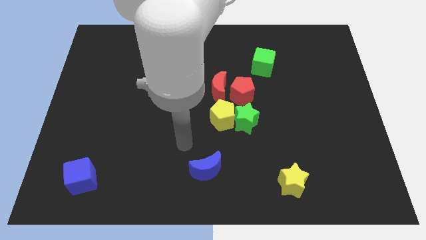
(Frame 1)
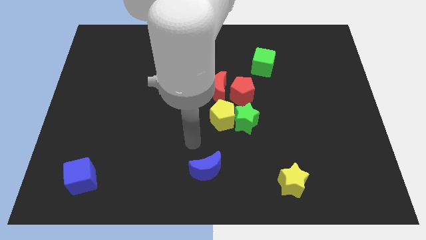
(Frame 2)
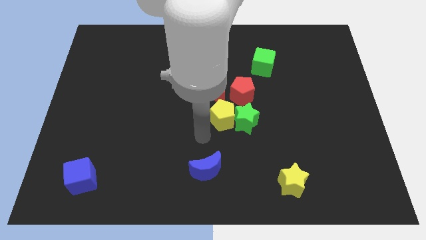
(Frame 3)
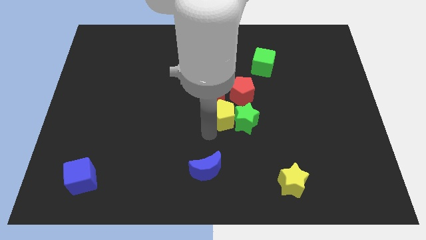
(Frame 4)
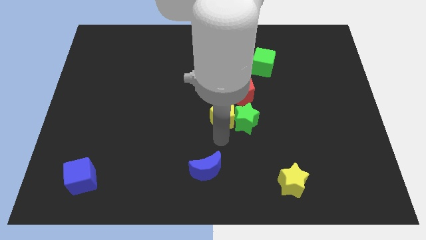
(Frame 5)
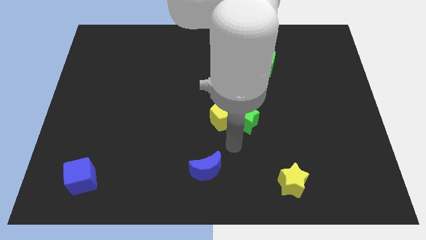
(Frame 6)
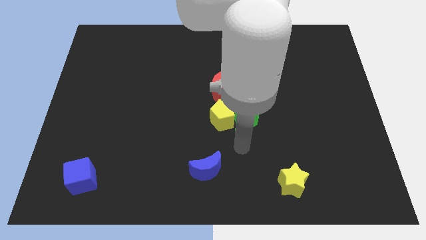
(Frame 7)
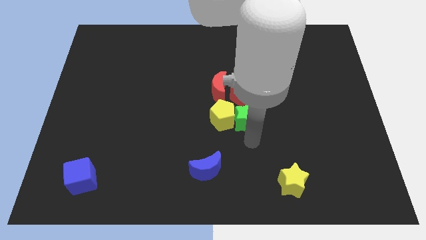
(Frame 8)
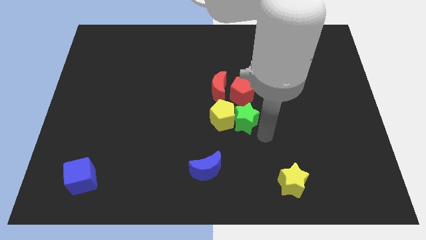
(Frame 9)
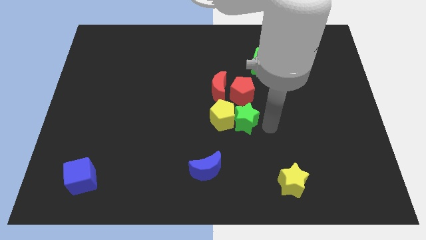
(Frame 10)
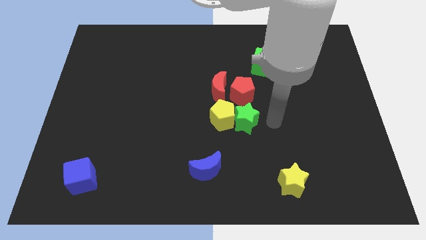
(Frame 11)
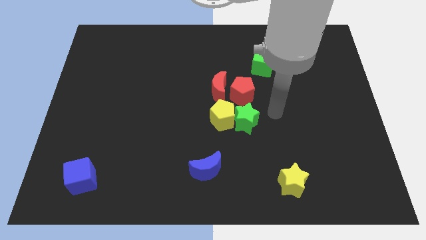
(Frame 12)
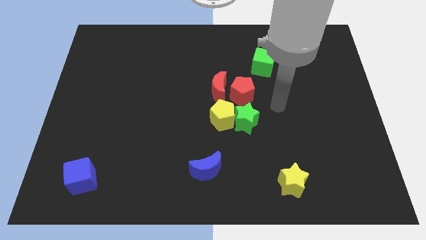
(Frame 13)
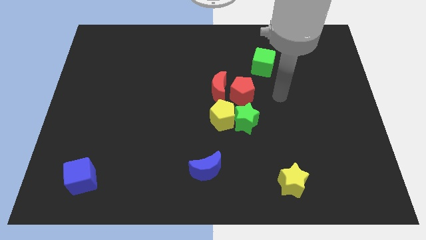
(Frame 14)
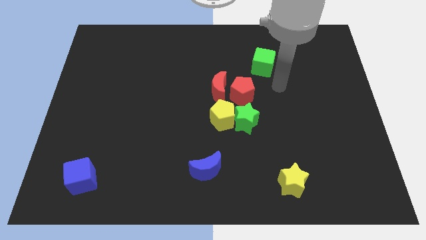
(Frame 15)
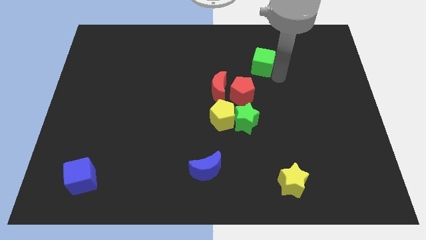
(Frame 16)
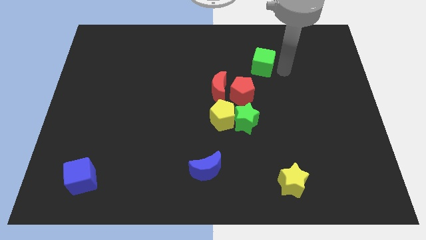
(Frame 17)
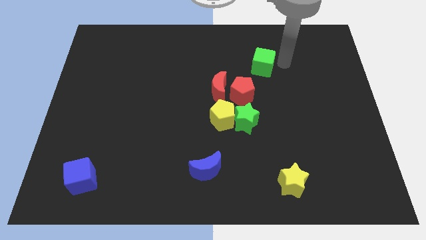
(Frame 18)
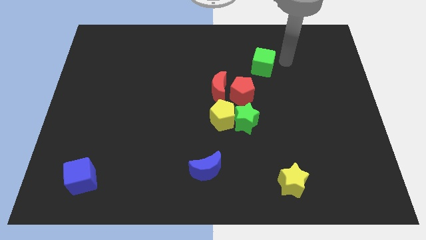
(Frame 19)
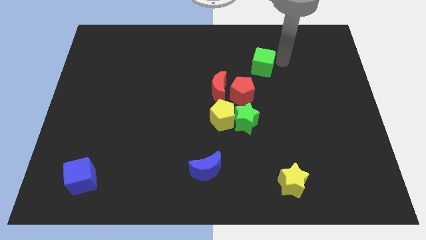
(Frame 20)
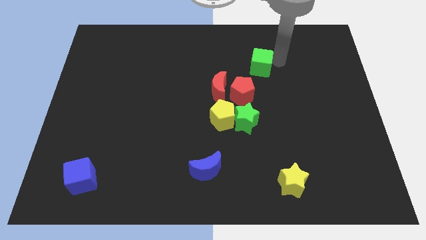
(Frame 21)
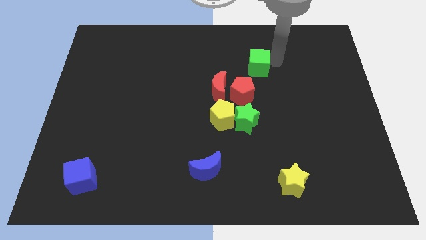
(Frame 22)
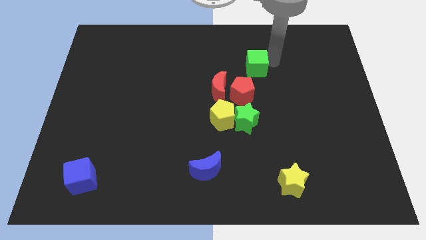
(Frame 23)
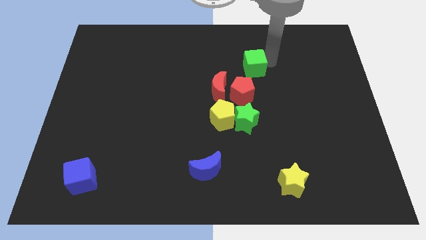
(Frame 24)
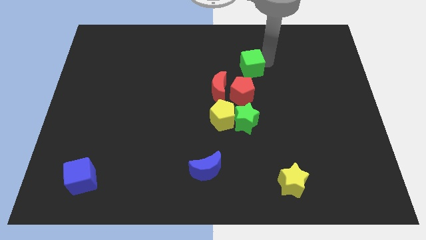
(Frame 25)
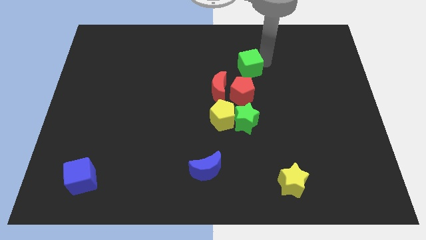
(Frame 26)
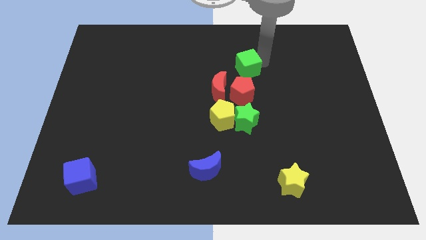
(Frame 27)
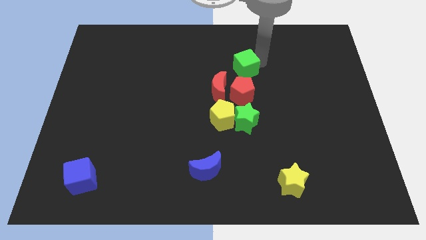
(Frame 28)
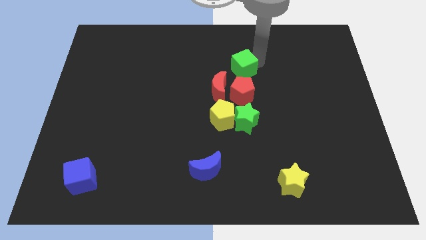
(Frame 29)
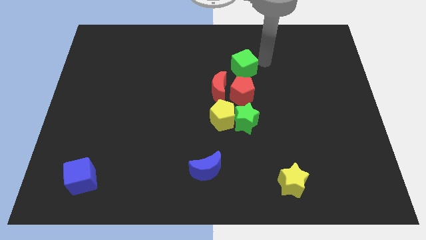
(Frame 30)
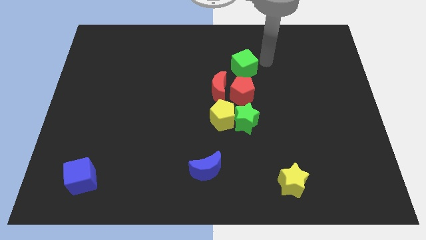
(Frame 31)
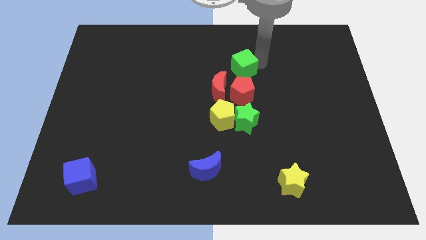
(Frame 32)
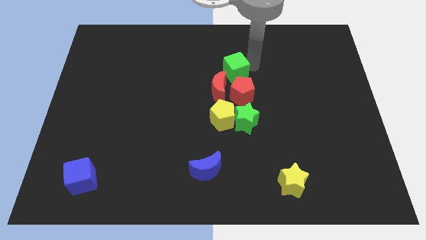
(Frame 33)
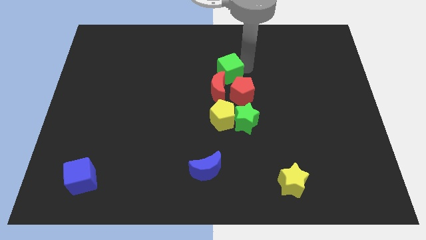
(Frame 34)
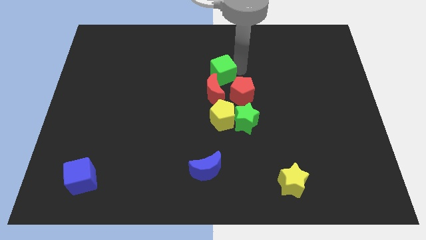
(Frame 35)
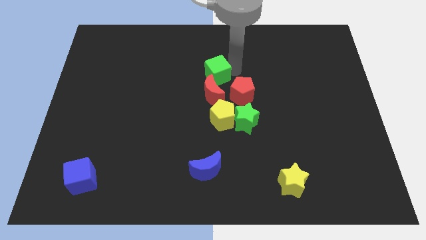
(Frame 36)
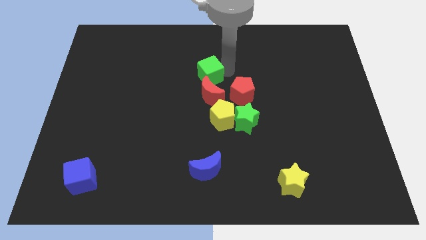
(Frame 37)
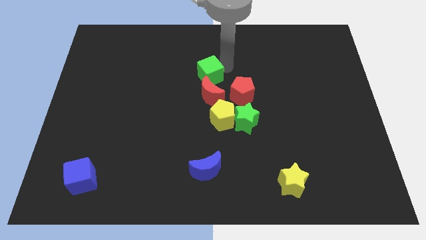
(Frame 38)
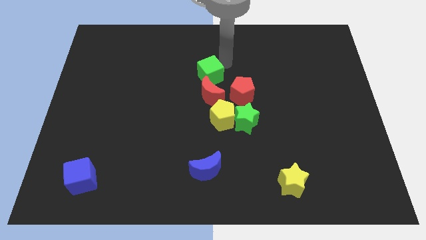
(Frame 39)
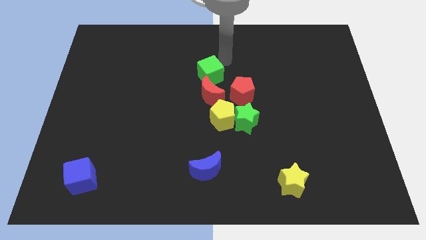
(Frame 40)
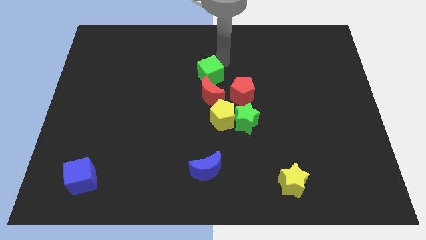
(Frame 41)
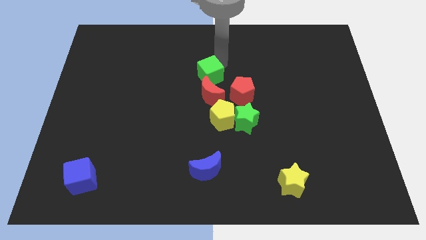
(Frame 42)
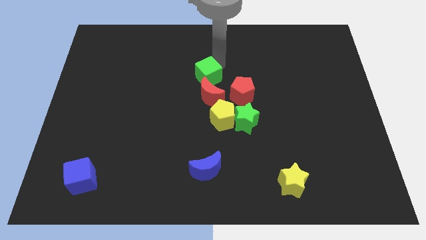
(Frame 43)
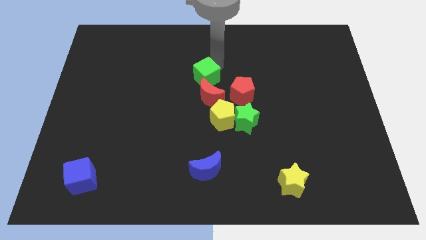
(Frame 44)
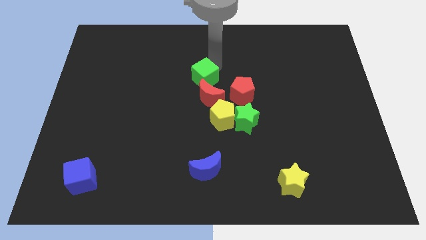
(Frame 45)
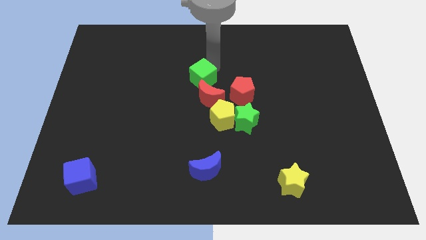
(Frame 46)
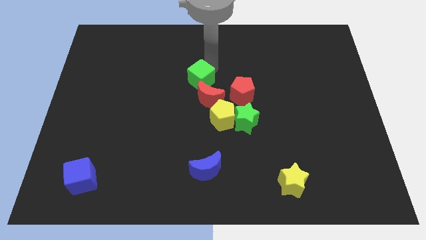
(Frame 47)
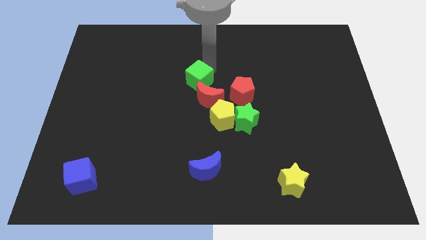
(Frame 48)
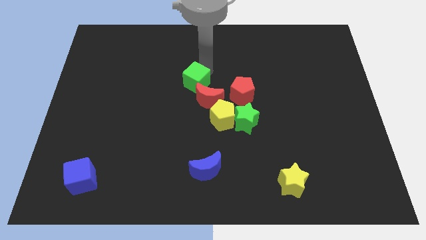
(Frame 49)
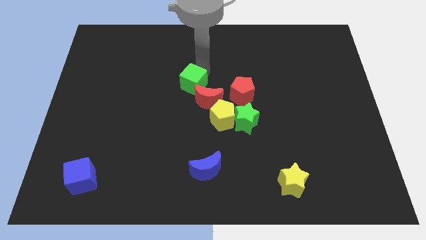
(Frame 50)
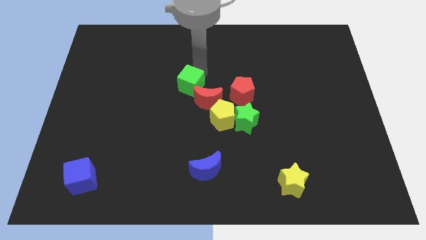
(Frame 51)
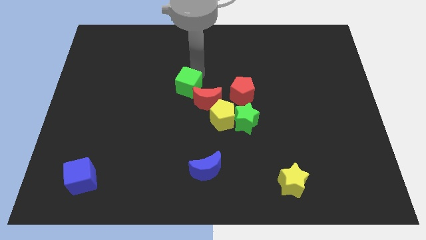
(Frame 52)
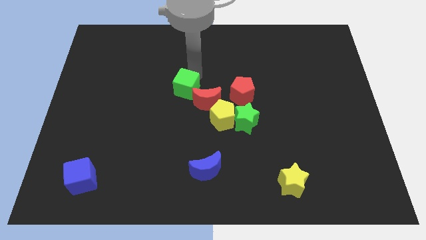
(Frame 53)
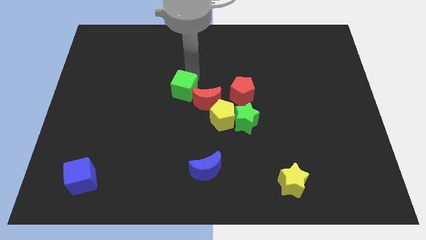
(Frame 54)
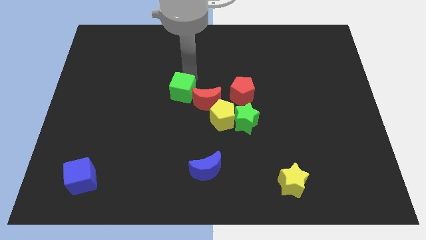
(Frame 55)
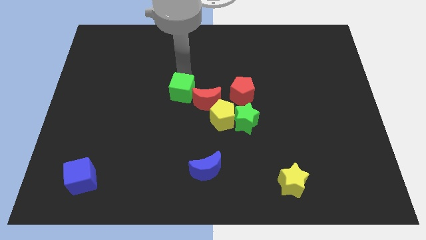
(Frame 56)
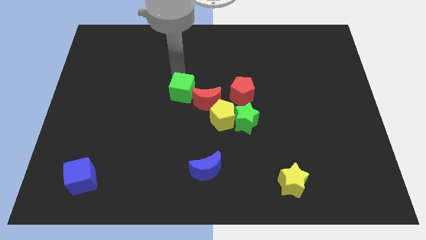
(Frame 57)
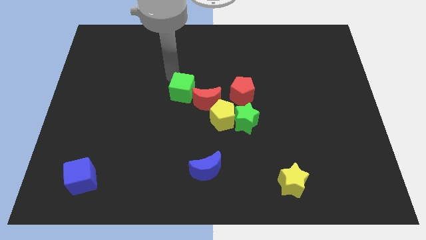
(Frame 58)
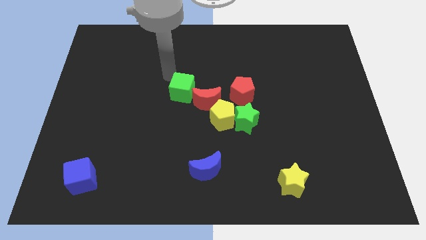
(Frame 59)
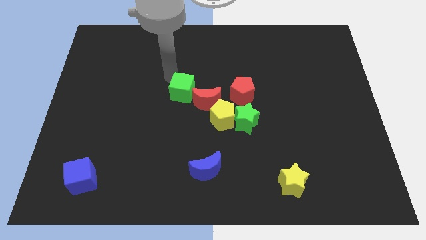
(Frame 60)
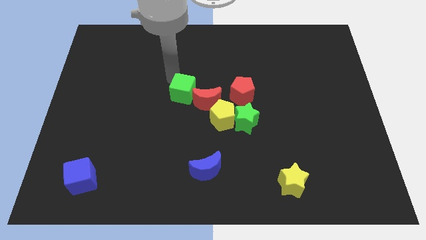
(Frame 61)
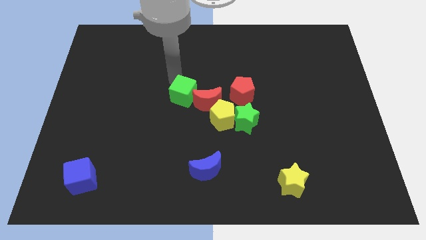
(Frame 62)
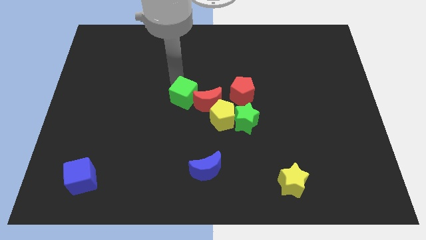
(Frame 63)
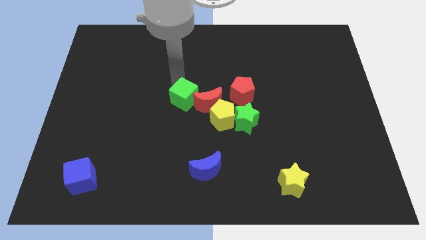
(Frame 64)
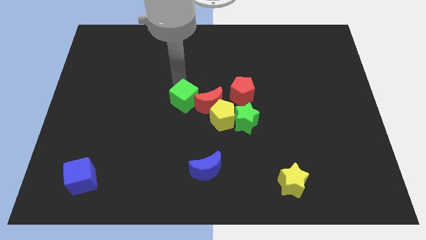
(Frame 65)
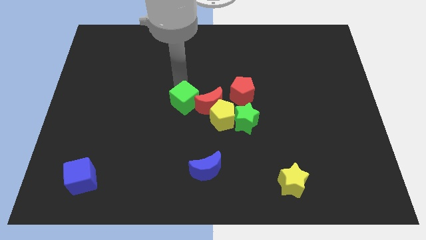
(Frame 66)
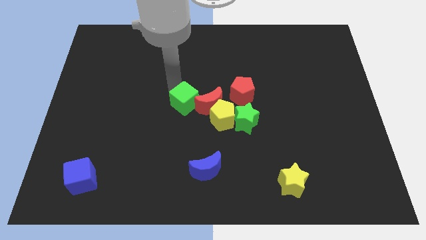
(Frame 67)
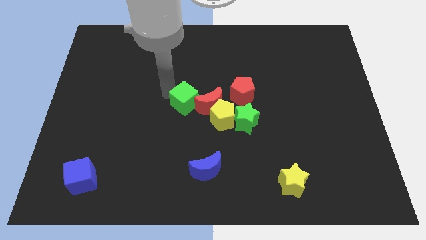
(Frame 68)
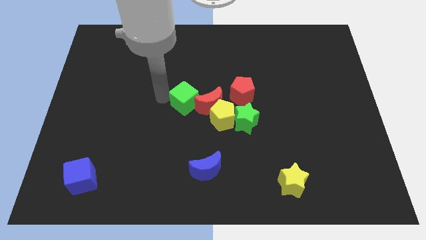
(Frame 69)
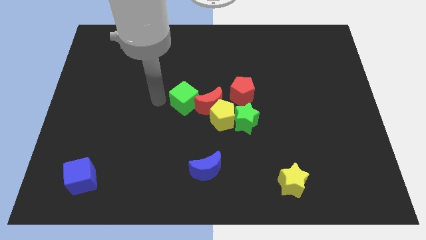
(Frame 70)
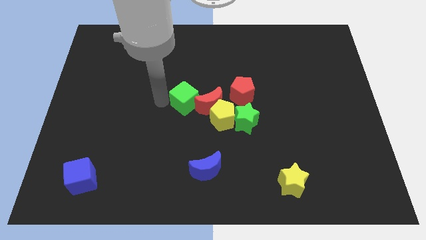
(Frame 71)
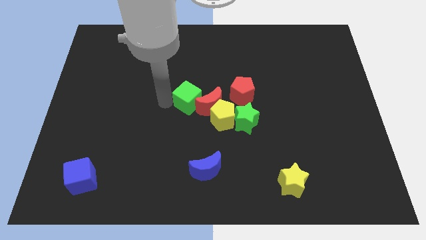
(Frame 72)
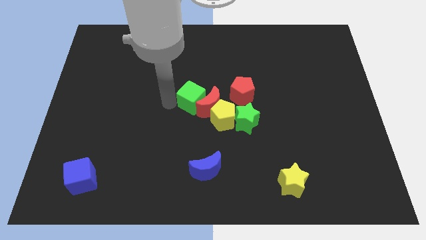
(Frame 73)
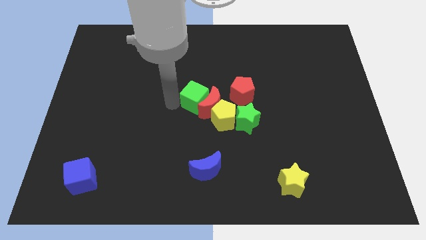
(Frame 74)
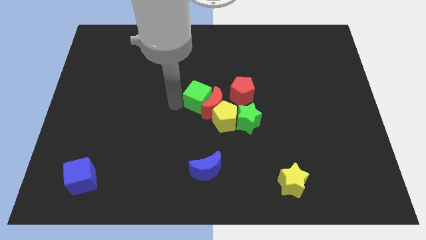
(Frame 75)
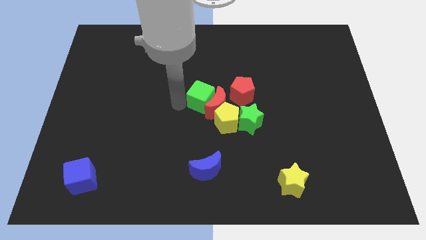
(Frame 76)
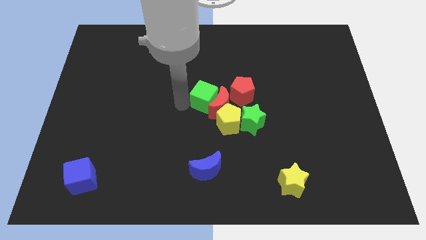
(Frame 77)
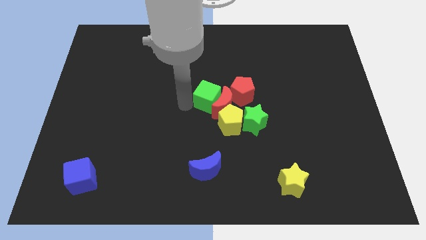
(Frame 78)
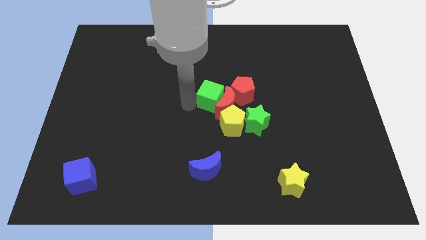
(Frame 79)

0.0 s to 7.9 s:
move the green cube to the top left of the green star
